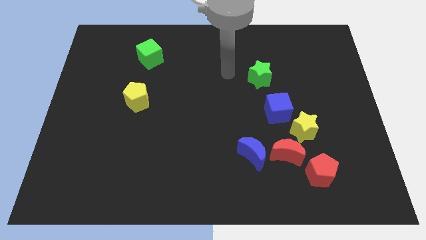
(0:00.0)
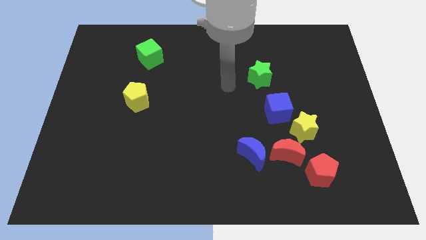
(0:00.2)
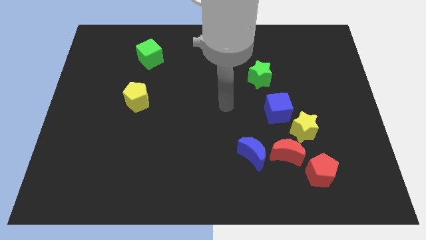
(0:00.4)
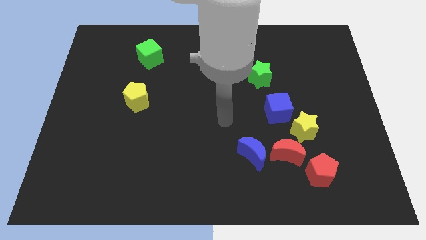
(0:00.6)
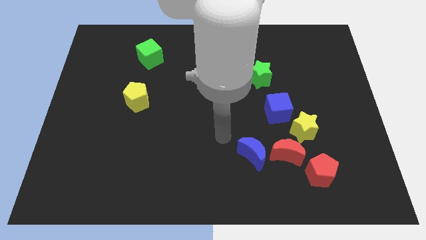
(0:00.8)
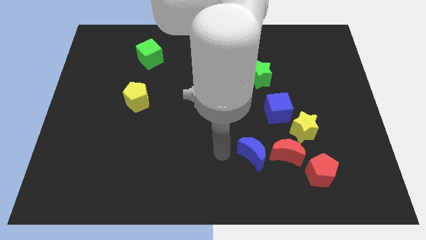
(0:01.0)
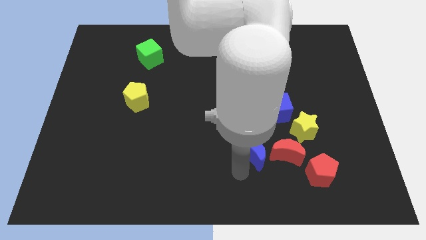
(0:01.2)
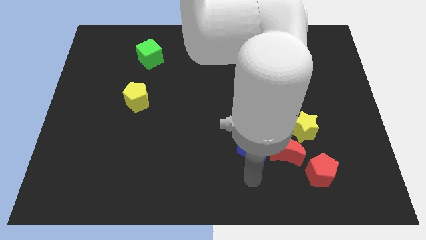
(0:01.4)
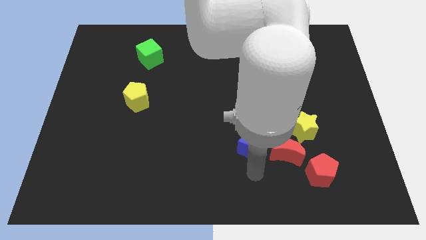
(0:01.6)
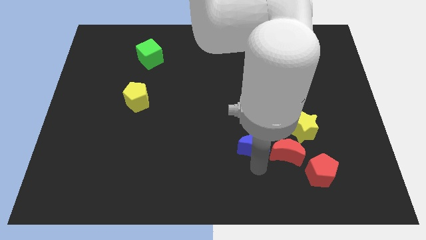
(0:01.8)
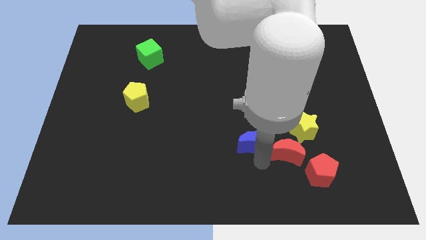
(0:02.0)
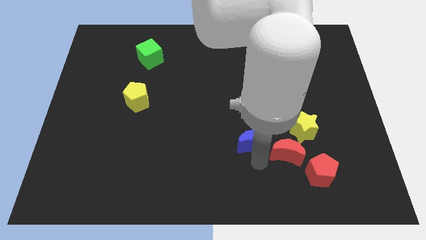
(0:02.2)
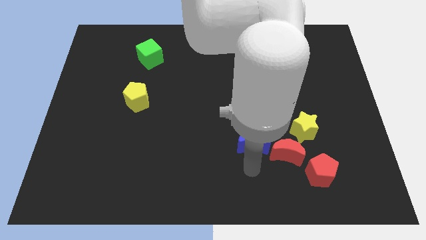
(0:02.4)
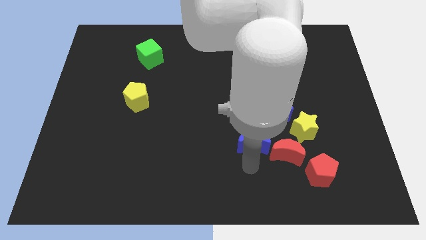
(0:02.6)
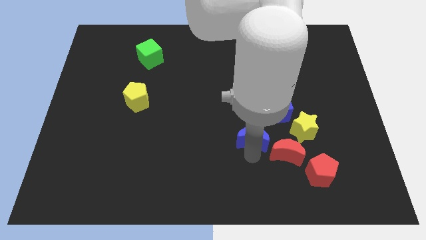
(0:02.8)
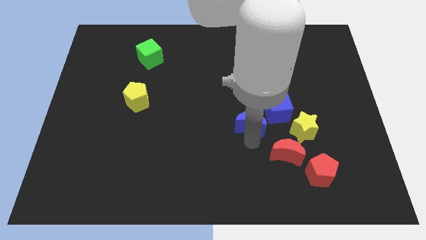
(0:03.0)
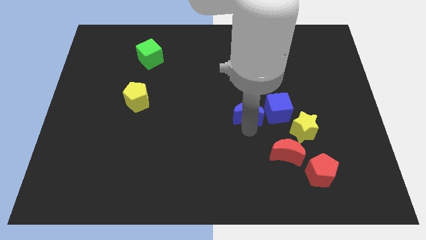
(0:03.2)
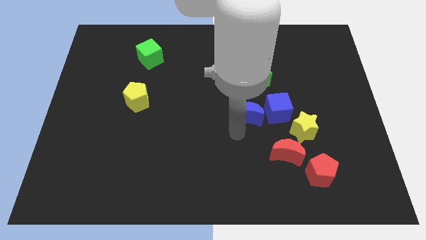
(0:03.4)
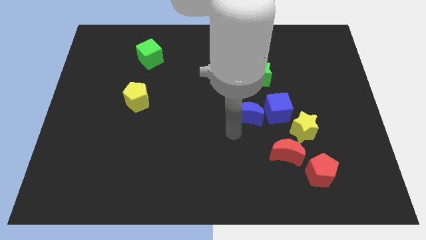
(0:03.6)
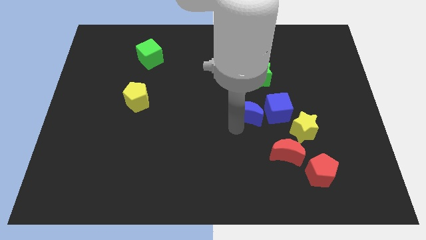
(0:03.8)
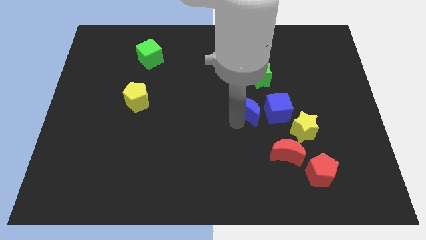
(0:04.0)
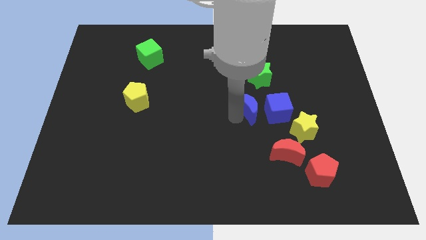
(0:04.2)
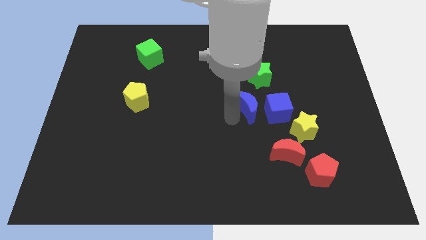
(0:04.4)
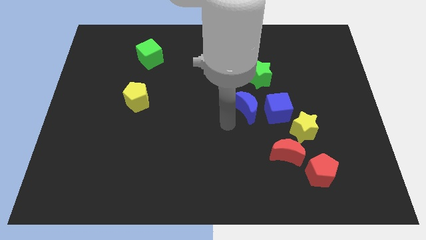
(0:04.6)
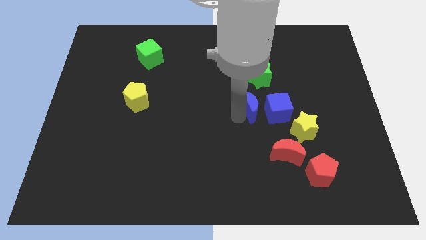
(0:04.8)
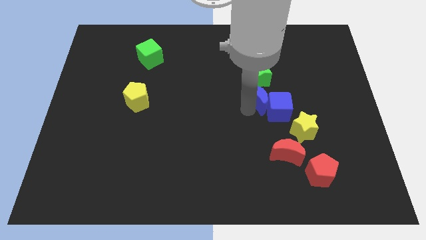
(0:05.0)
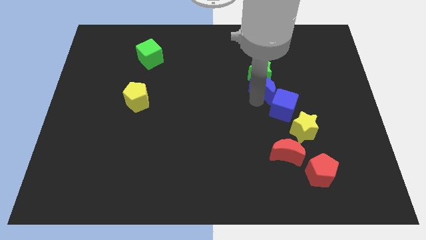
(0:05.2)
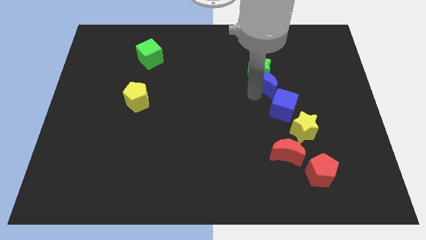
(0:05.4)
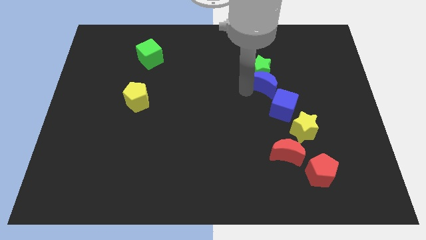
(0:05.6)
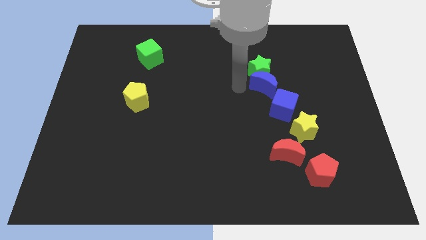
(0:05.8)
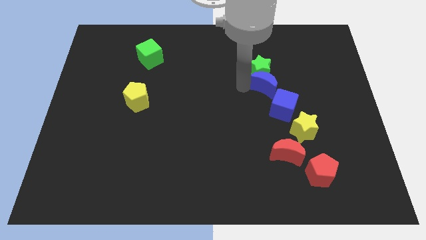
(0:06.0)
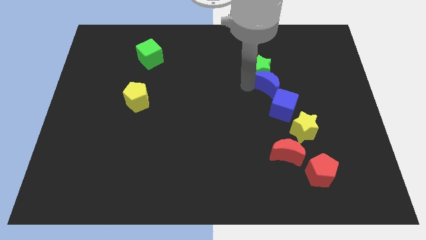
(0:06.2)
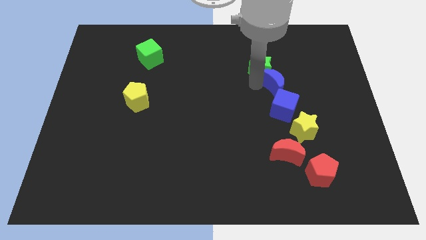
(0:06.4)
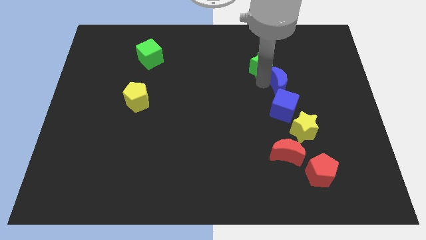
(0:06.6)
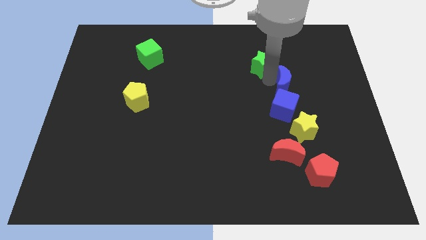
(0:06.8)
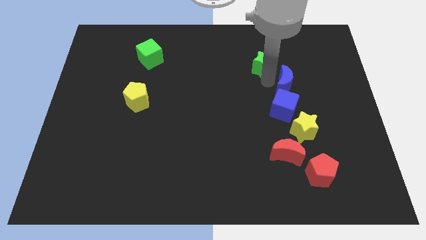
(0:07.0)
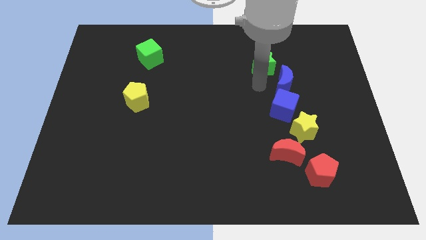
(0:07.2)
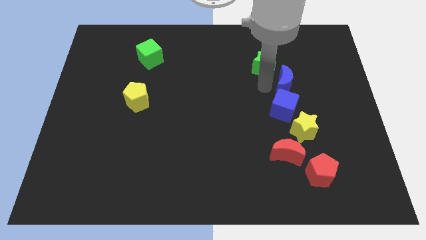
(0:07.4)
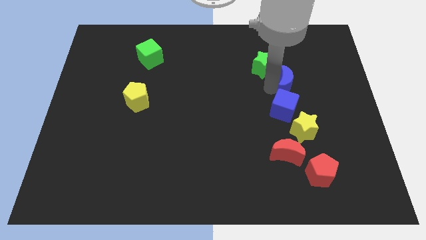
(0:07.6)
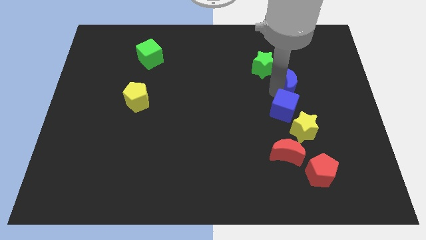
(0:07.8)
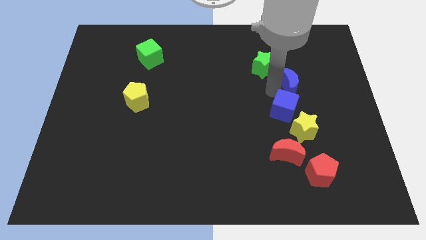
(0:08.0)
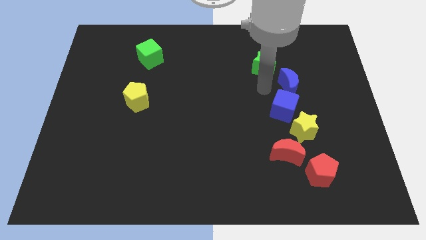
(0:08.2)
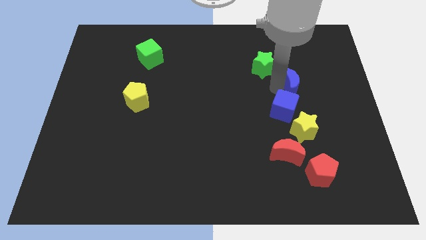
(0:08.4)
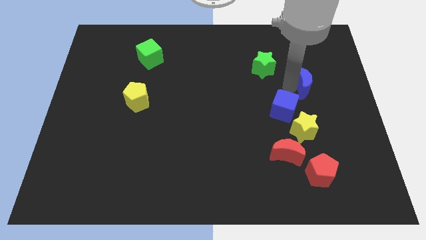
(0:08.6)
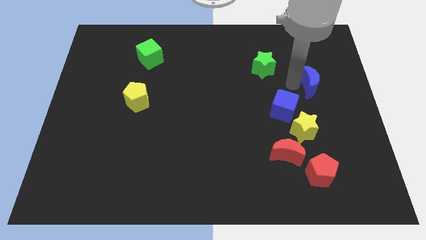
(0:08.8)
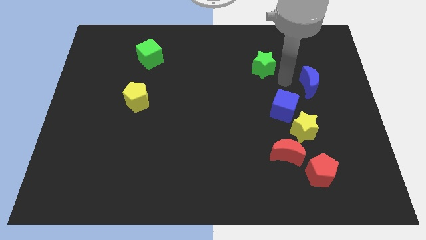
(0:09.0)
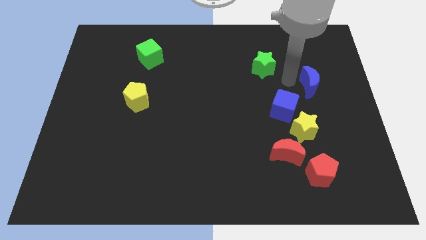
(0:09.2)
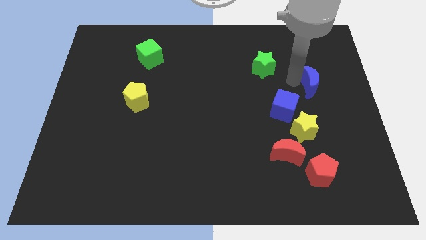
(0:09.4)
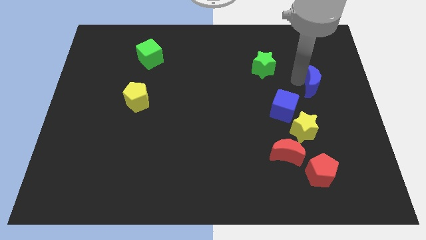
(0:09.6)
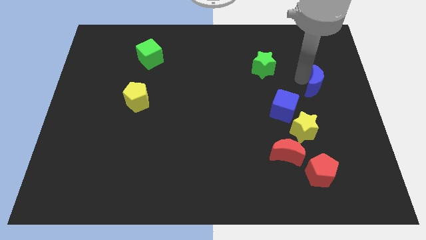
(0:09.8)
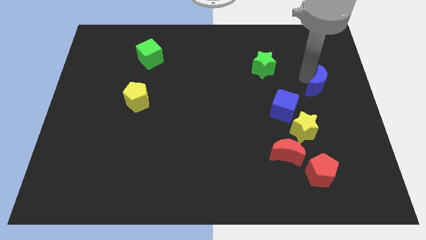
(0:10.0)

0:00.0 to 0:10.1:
slide the blue moon to the right side of the board

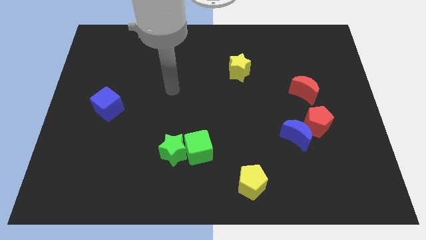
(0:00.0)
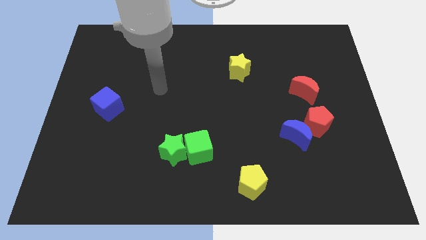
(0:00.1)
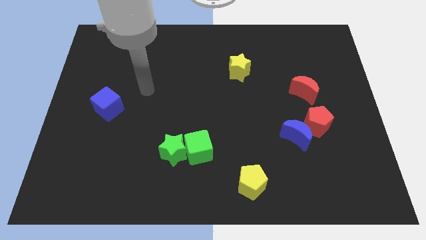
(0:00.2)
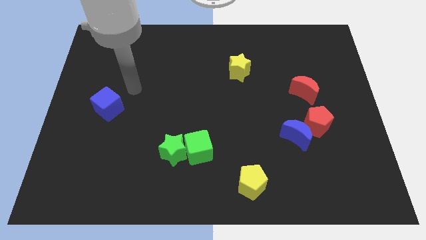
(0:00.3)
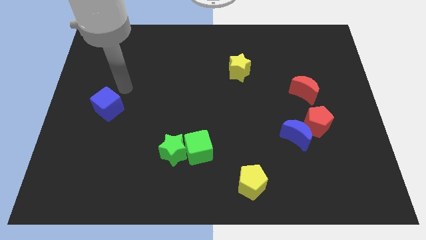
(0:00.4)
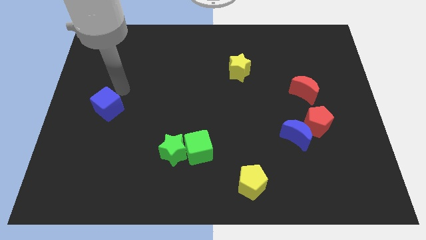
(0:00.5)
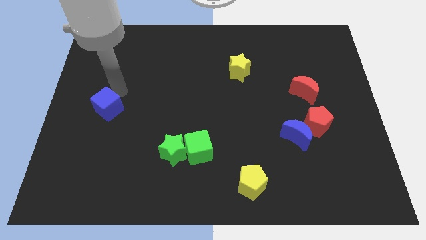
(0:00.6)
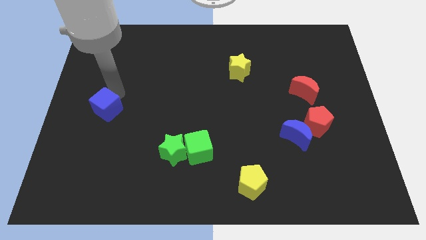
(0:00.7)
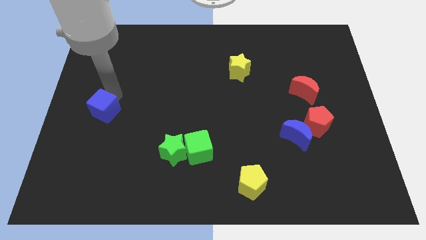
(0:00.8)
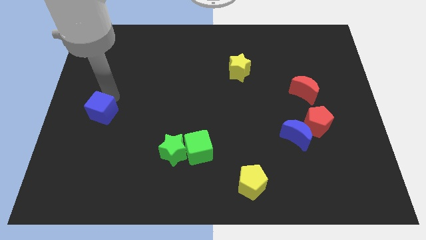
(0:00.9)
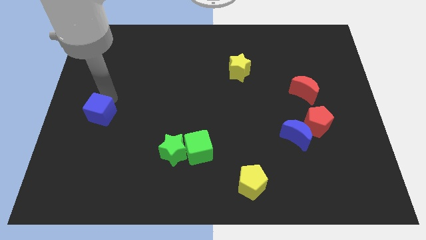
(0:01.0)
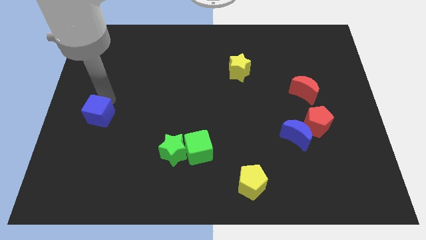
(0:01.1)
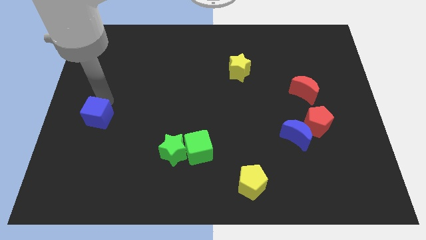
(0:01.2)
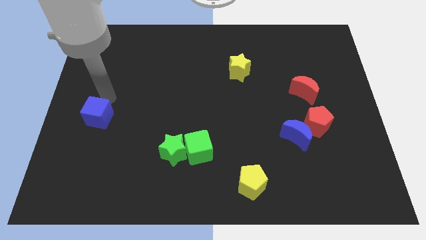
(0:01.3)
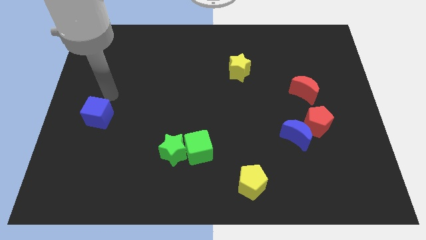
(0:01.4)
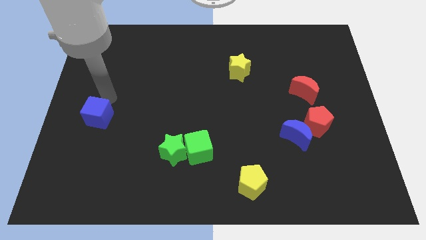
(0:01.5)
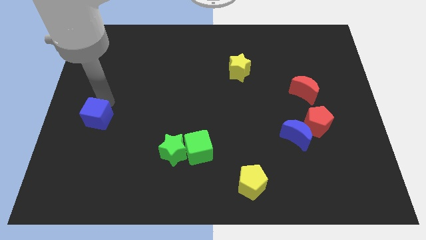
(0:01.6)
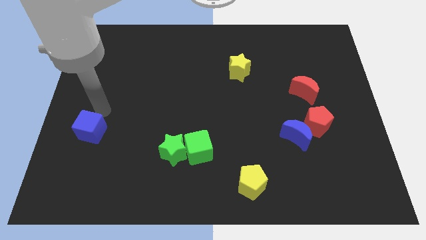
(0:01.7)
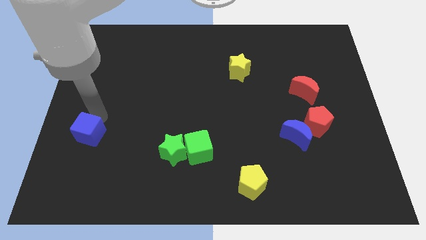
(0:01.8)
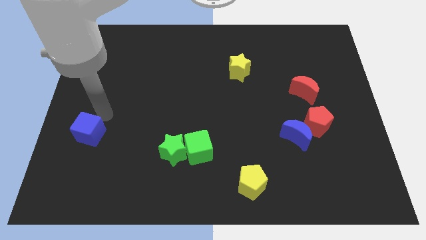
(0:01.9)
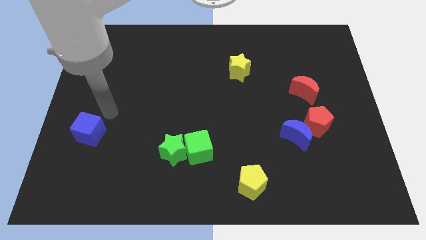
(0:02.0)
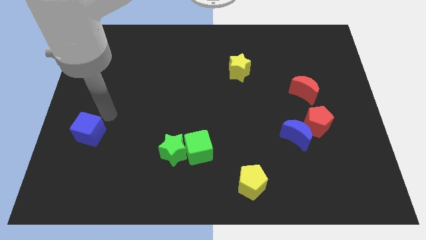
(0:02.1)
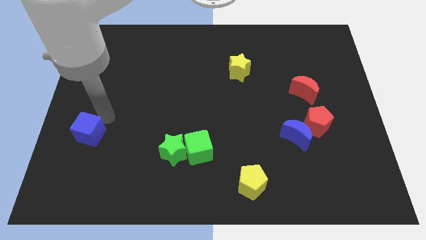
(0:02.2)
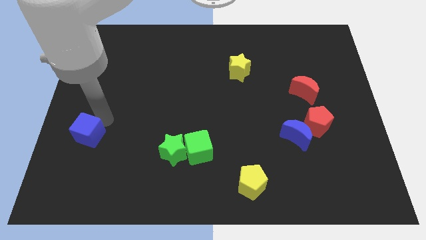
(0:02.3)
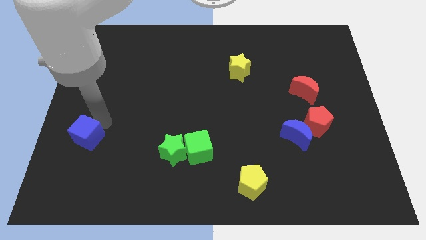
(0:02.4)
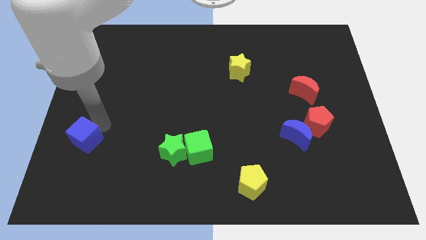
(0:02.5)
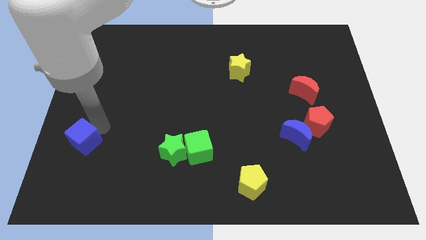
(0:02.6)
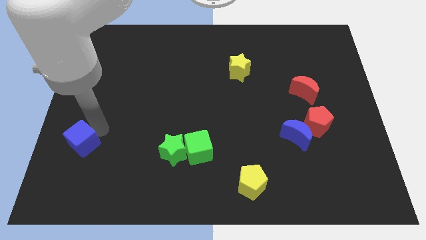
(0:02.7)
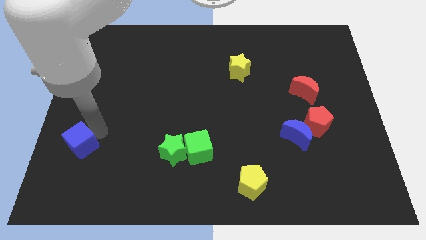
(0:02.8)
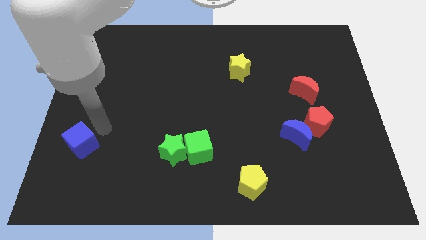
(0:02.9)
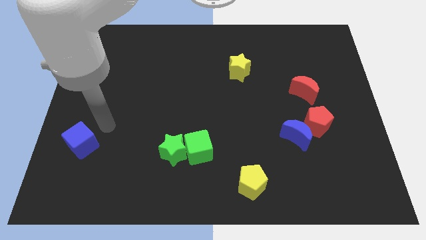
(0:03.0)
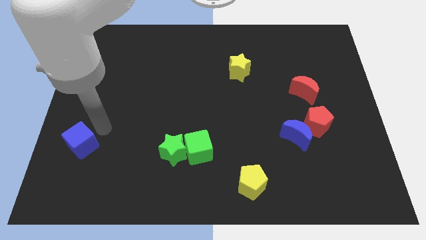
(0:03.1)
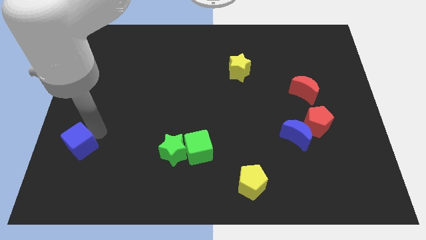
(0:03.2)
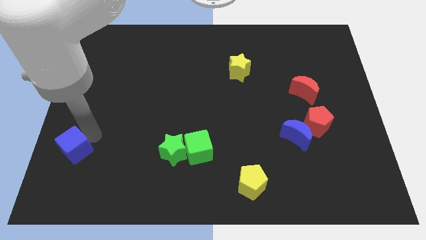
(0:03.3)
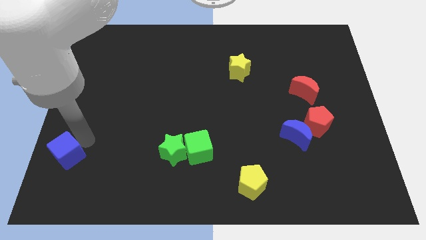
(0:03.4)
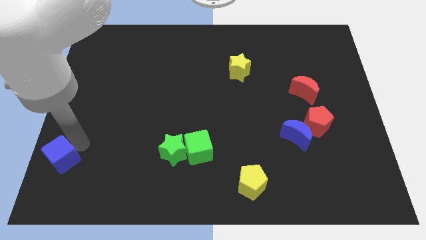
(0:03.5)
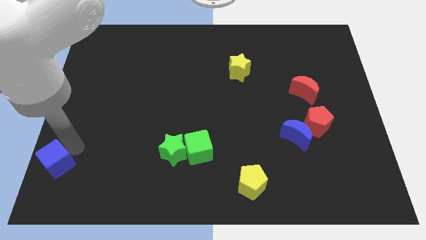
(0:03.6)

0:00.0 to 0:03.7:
push the blue cube to the lower left corner
